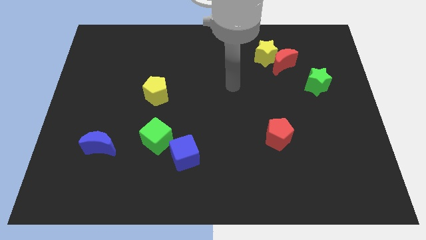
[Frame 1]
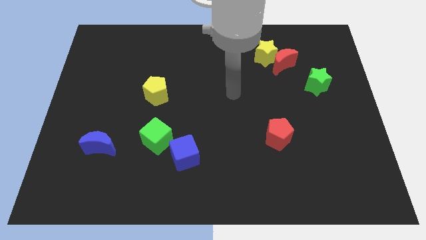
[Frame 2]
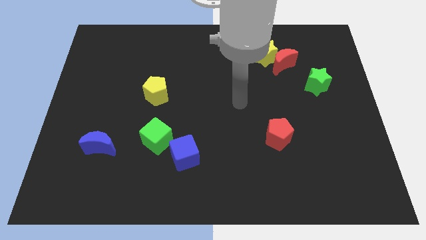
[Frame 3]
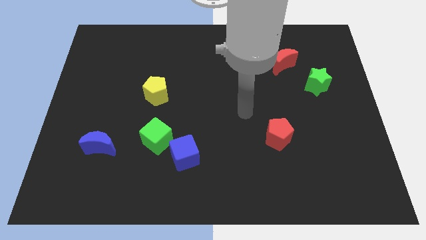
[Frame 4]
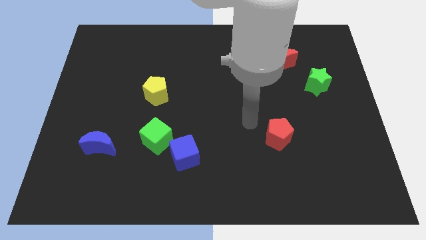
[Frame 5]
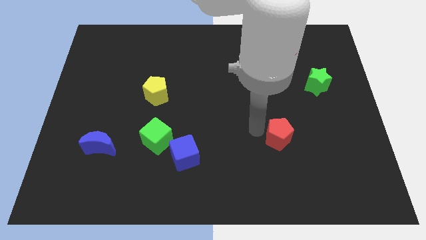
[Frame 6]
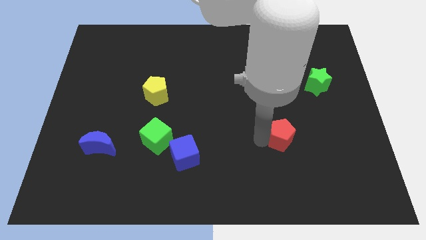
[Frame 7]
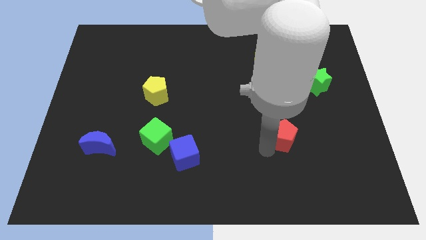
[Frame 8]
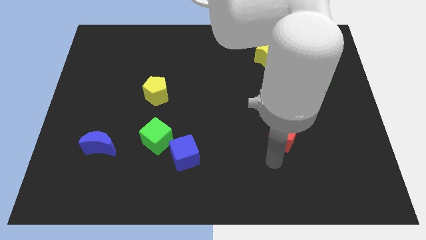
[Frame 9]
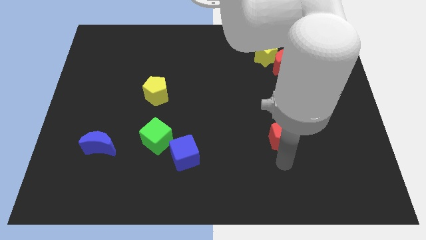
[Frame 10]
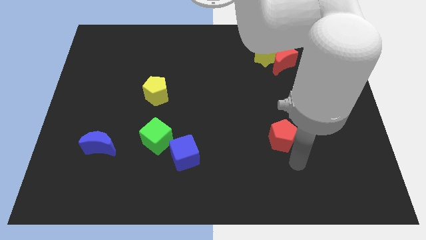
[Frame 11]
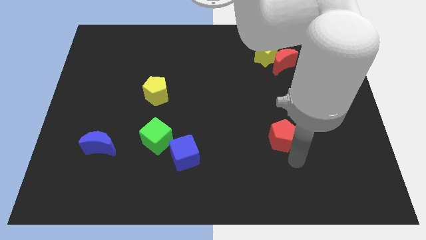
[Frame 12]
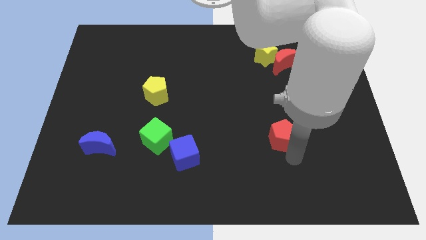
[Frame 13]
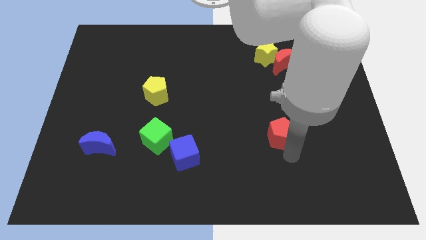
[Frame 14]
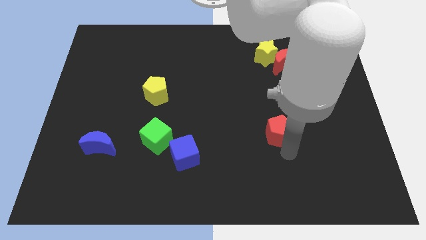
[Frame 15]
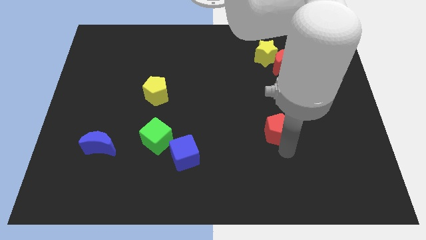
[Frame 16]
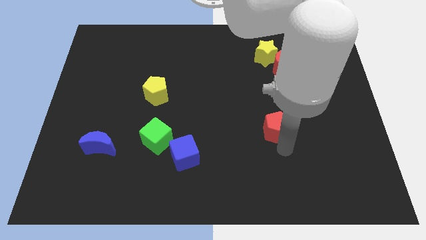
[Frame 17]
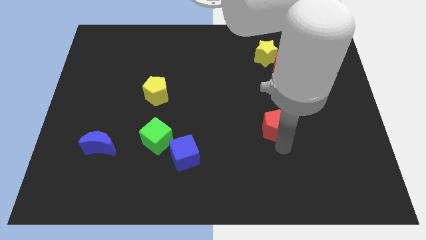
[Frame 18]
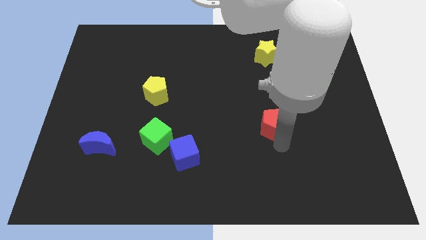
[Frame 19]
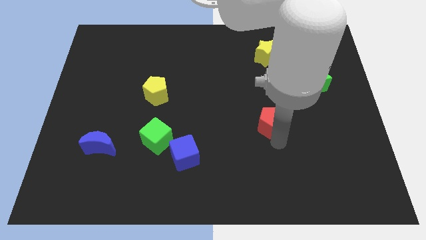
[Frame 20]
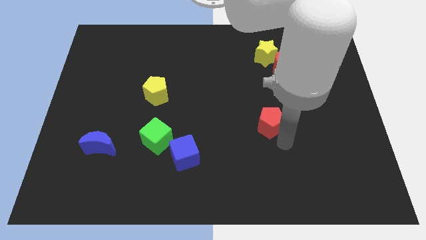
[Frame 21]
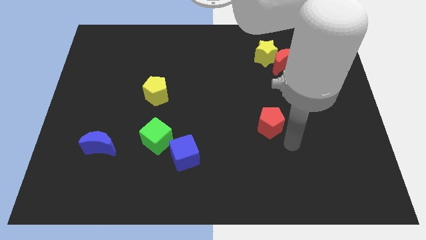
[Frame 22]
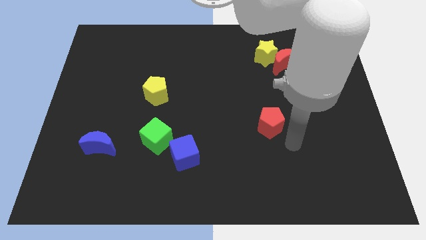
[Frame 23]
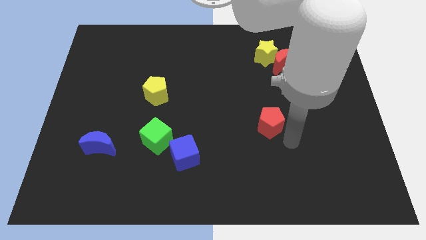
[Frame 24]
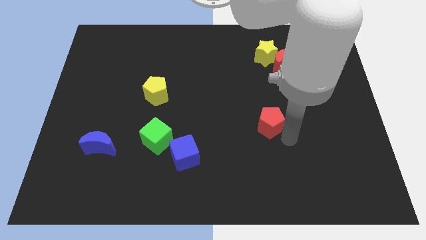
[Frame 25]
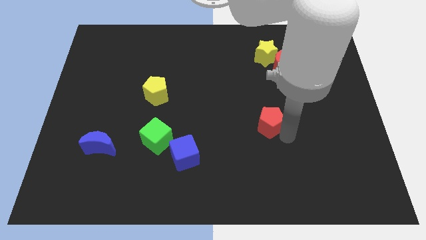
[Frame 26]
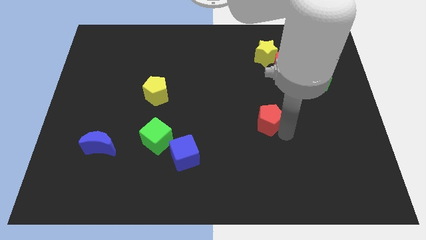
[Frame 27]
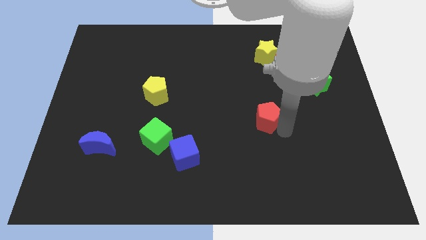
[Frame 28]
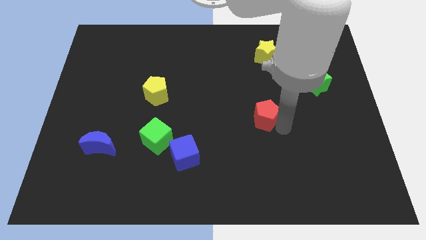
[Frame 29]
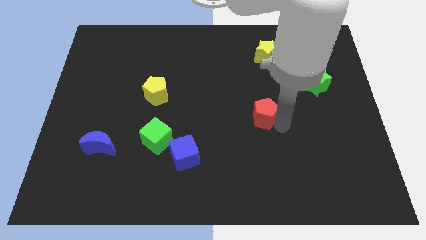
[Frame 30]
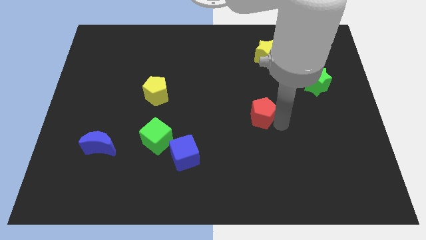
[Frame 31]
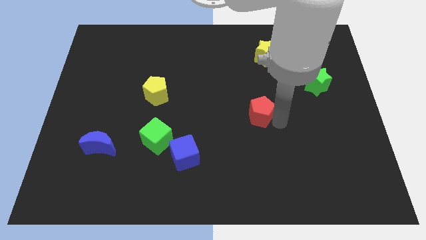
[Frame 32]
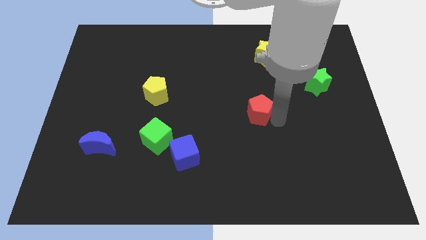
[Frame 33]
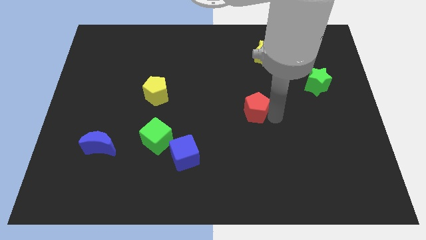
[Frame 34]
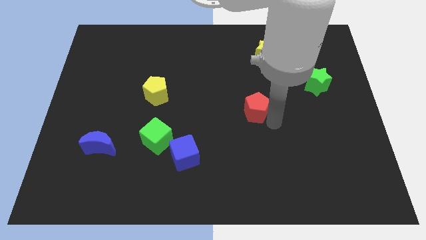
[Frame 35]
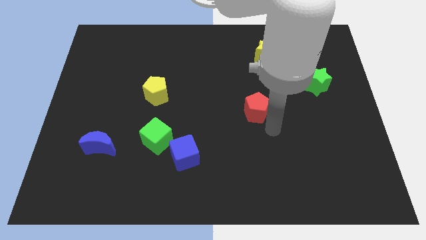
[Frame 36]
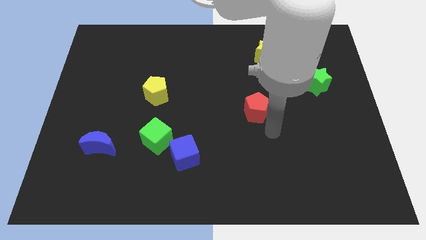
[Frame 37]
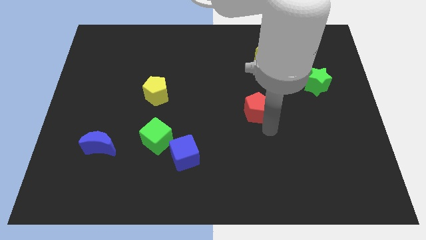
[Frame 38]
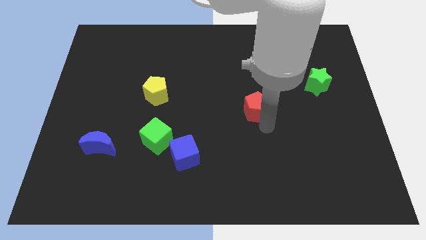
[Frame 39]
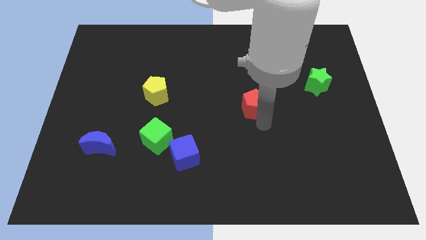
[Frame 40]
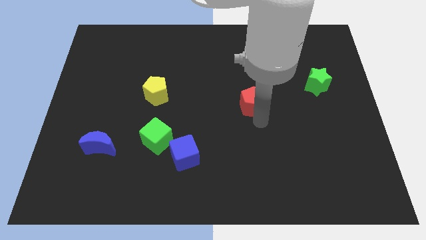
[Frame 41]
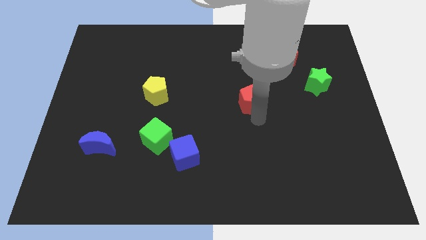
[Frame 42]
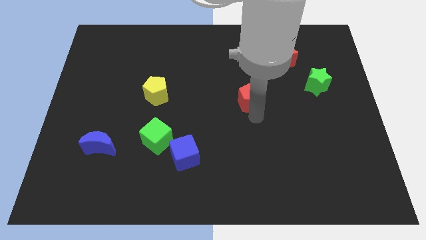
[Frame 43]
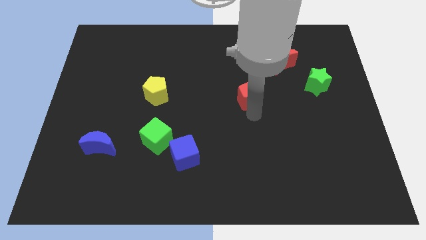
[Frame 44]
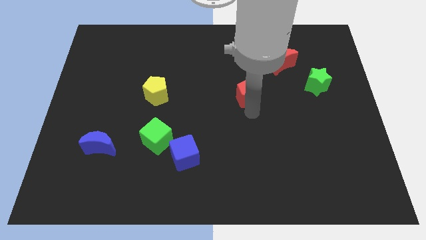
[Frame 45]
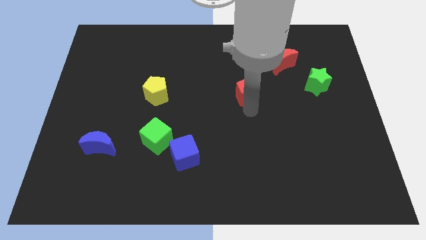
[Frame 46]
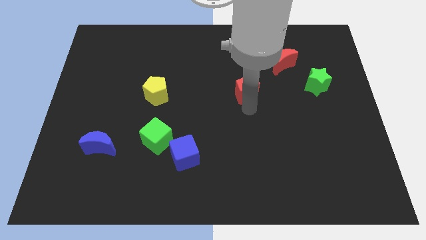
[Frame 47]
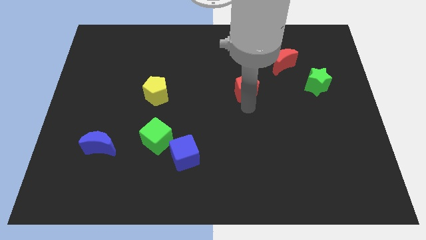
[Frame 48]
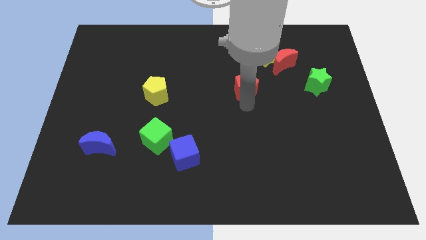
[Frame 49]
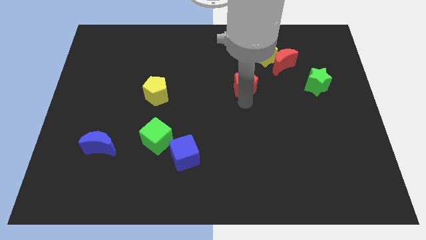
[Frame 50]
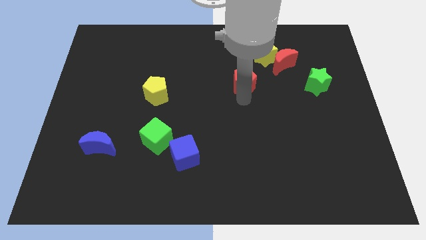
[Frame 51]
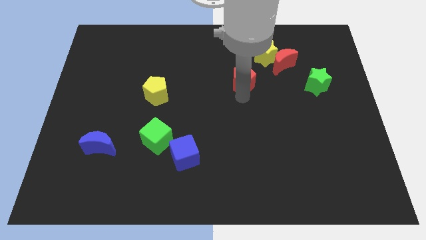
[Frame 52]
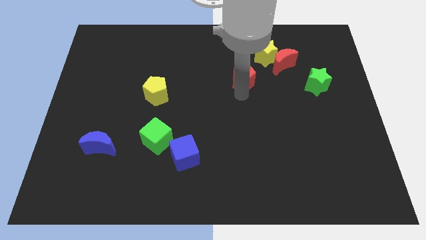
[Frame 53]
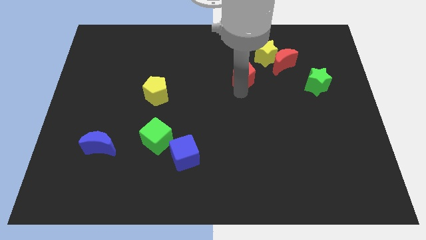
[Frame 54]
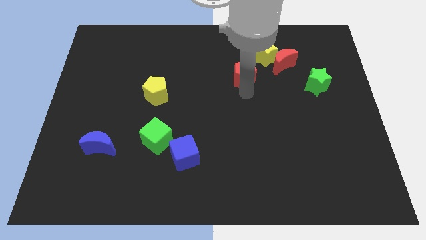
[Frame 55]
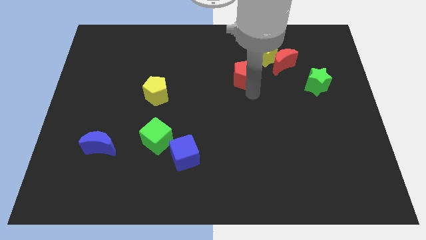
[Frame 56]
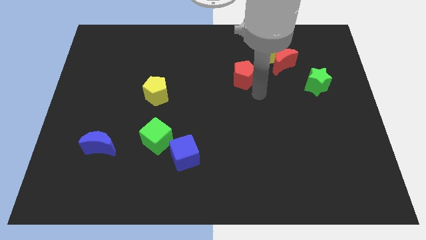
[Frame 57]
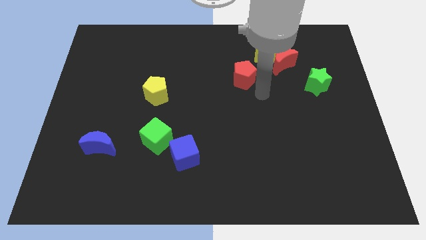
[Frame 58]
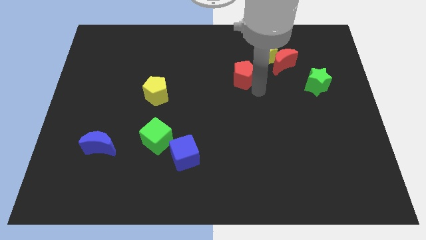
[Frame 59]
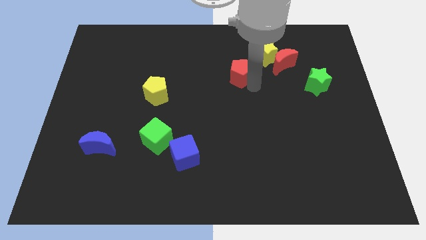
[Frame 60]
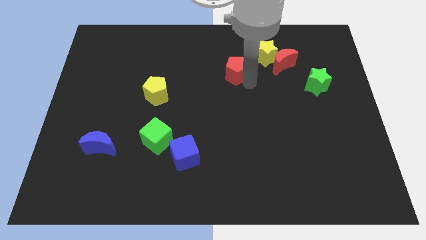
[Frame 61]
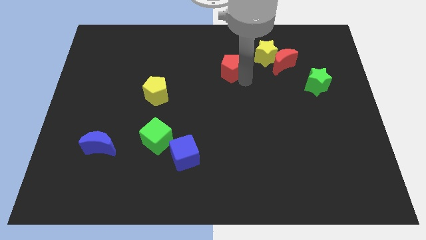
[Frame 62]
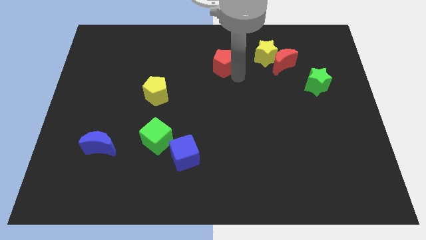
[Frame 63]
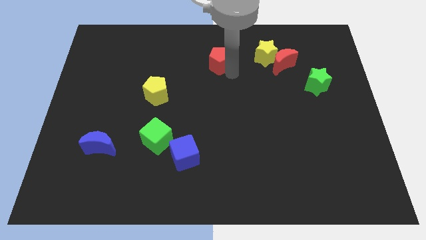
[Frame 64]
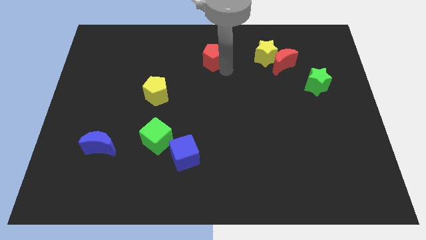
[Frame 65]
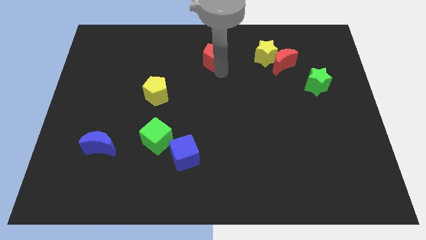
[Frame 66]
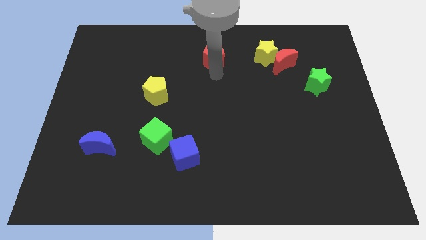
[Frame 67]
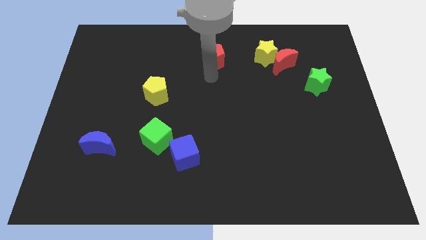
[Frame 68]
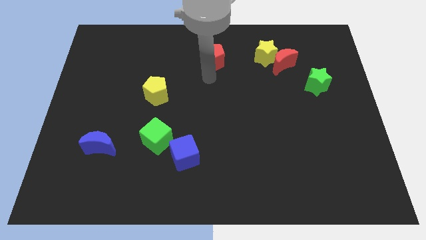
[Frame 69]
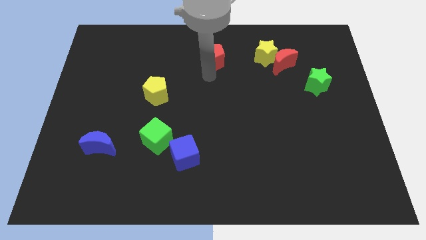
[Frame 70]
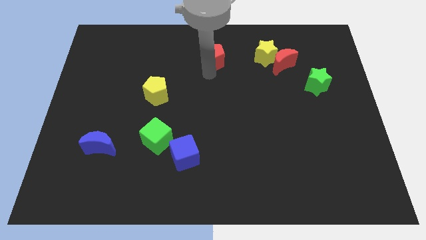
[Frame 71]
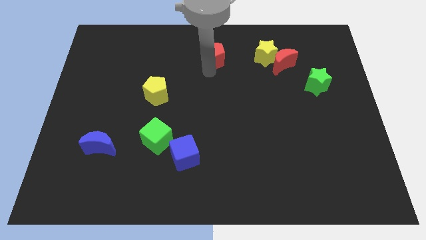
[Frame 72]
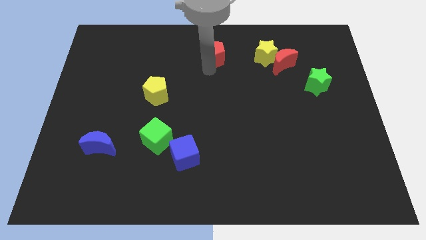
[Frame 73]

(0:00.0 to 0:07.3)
push the red pentagon to the towards your base

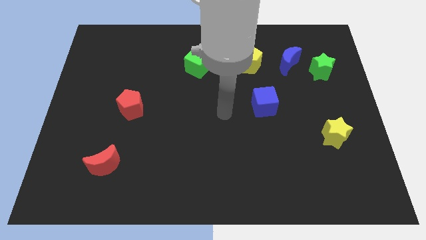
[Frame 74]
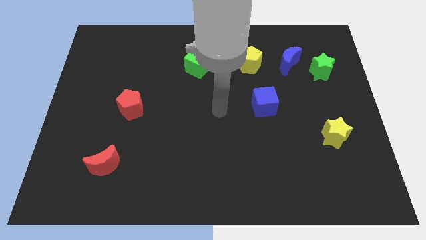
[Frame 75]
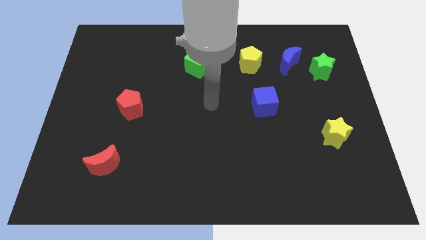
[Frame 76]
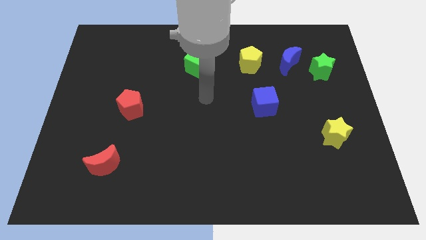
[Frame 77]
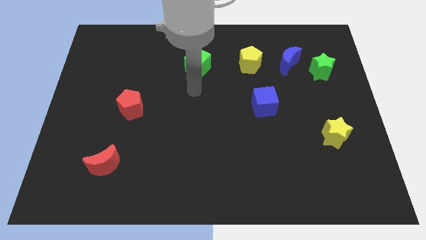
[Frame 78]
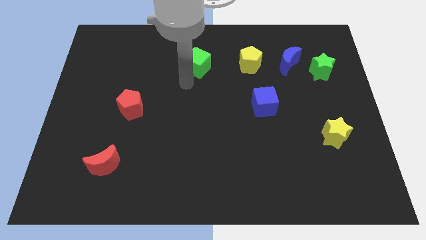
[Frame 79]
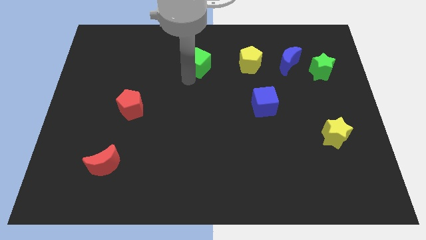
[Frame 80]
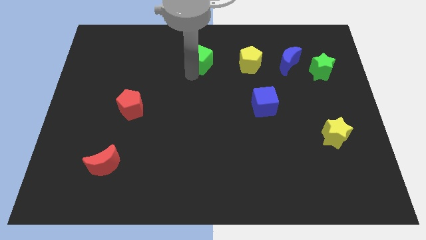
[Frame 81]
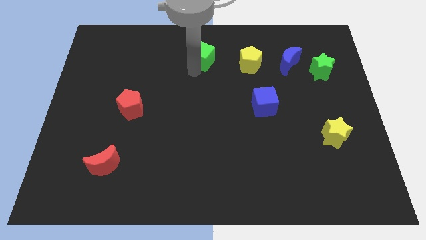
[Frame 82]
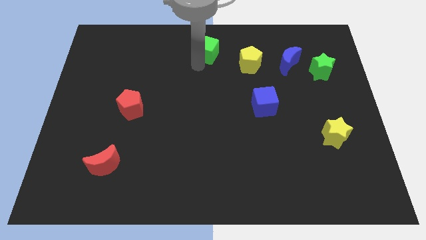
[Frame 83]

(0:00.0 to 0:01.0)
slide the green cube to the top
